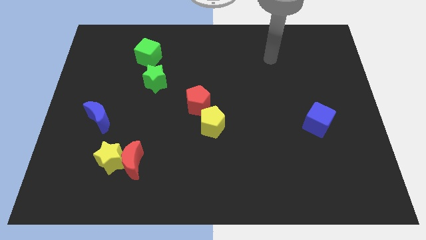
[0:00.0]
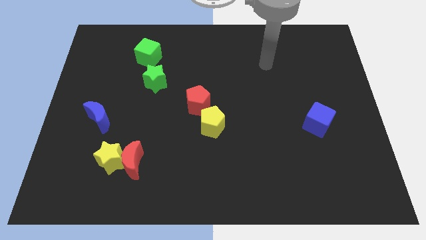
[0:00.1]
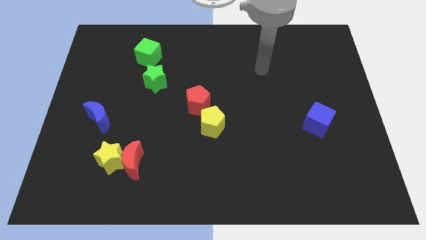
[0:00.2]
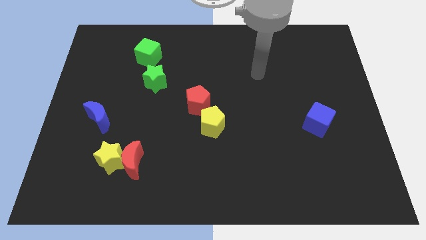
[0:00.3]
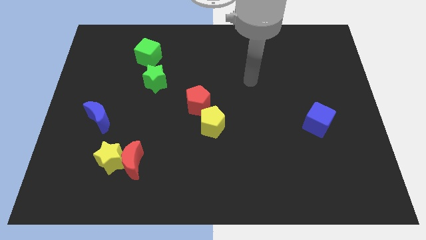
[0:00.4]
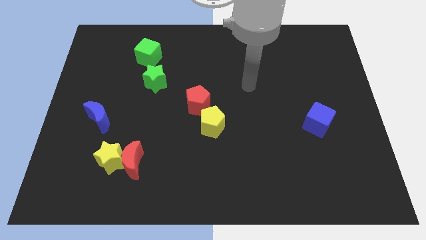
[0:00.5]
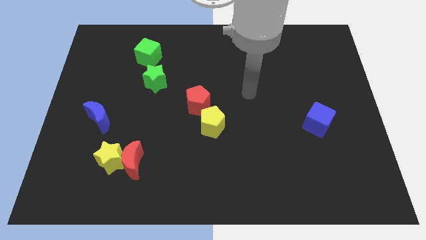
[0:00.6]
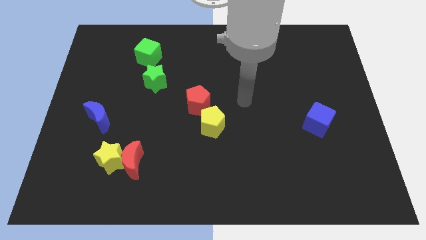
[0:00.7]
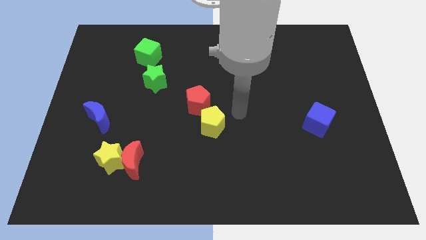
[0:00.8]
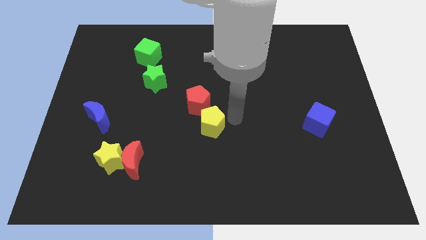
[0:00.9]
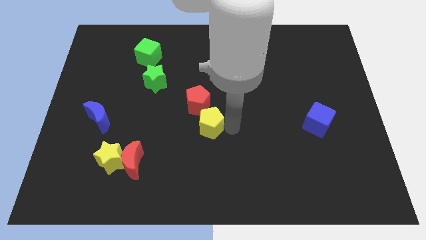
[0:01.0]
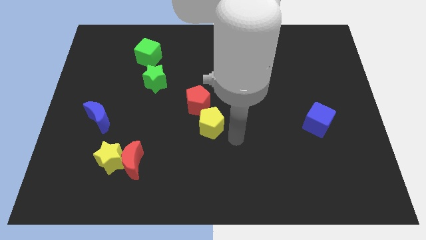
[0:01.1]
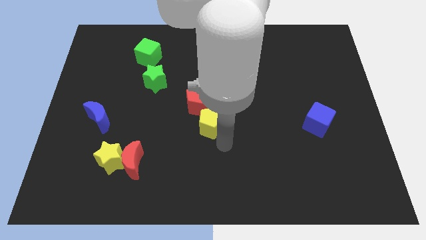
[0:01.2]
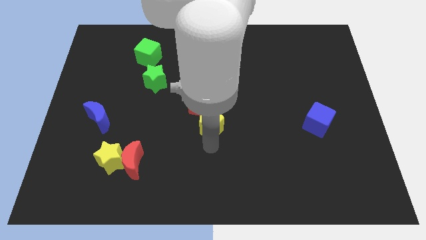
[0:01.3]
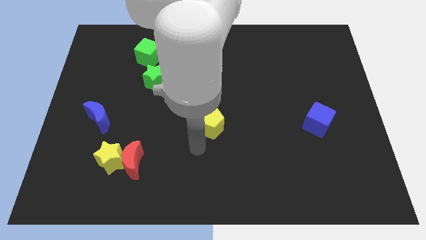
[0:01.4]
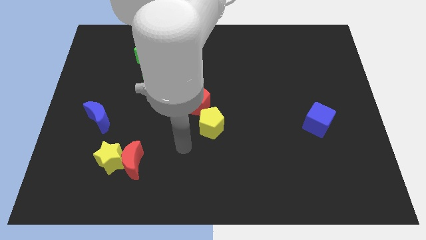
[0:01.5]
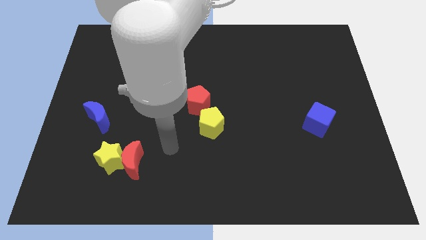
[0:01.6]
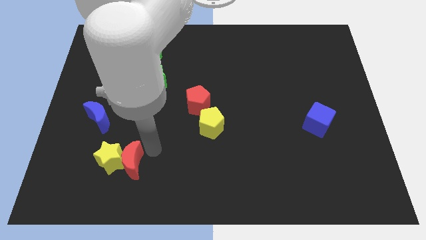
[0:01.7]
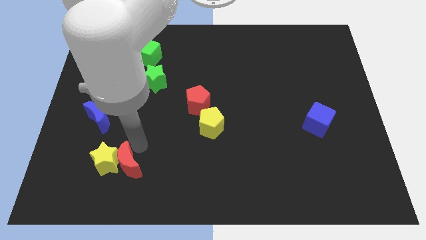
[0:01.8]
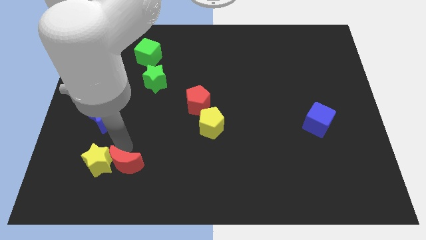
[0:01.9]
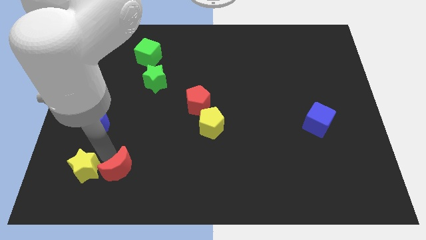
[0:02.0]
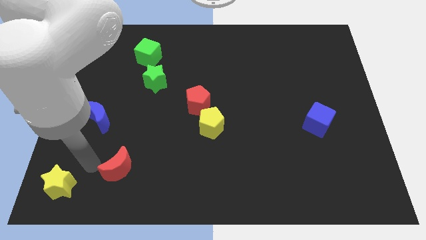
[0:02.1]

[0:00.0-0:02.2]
separate the red moon from the yellow star

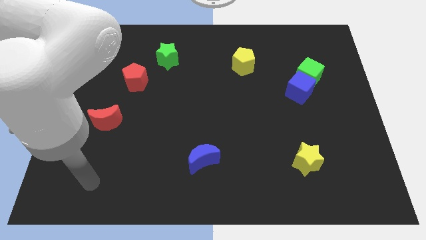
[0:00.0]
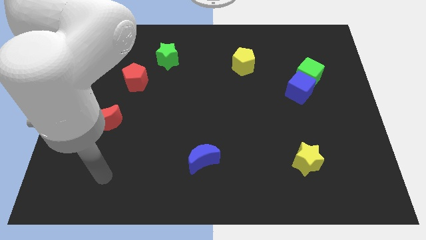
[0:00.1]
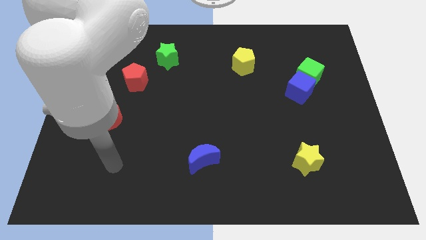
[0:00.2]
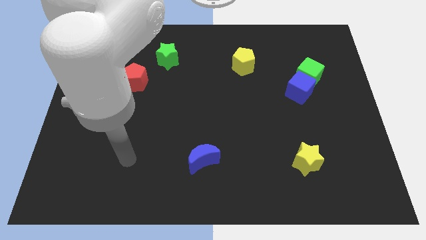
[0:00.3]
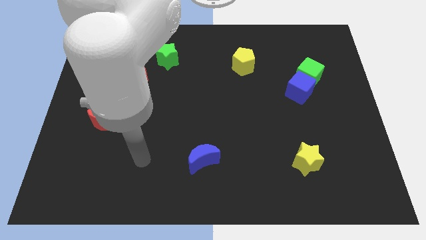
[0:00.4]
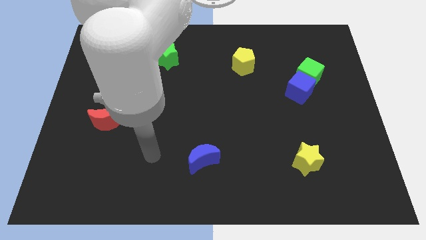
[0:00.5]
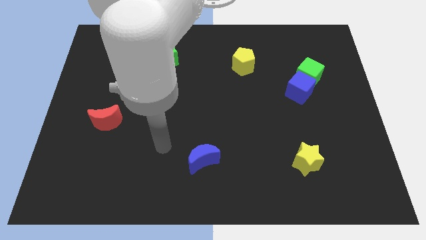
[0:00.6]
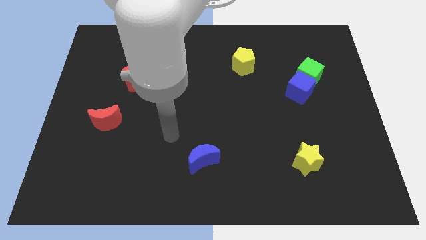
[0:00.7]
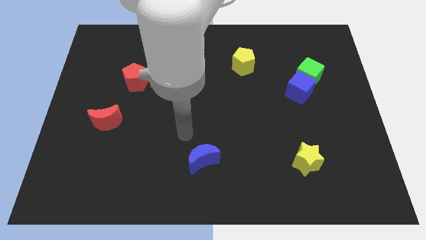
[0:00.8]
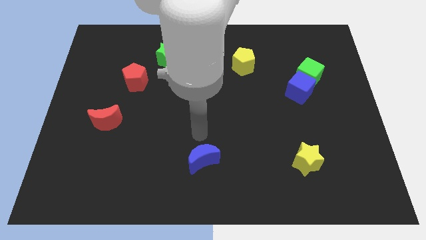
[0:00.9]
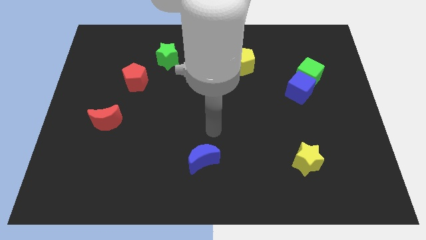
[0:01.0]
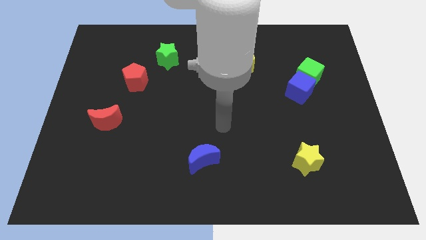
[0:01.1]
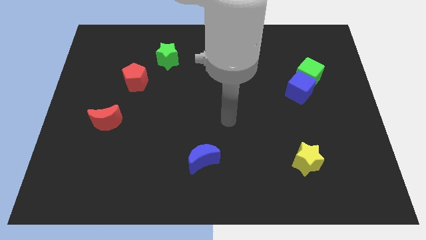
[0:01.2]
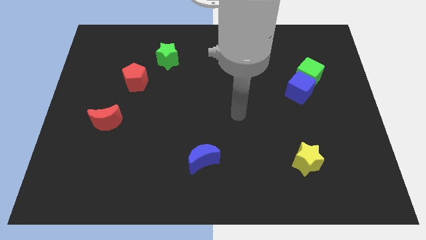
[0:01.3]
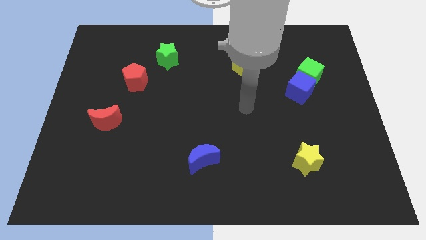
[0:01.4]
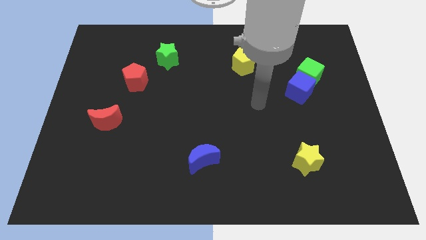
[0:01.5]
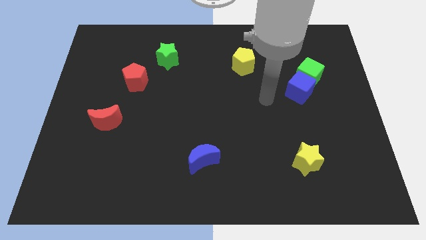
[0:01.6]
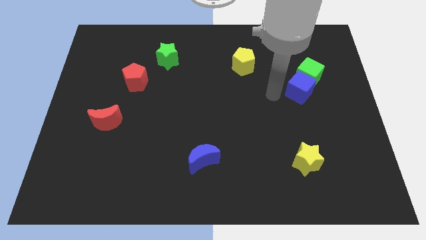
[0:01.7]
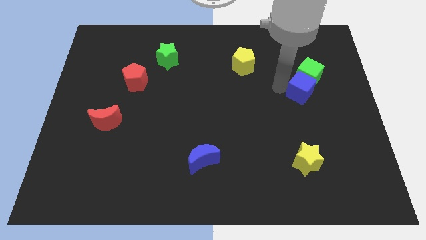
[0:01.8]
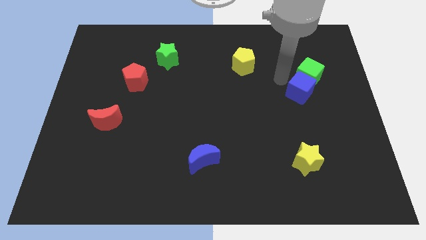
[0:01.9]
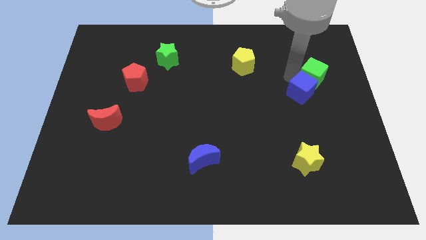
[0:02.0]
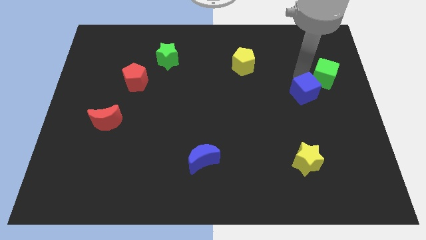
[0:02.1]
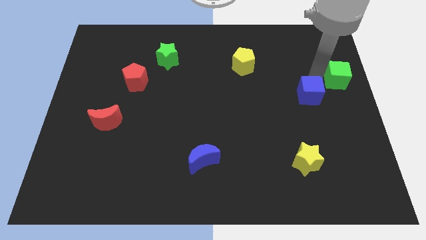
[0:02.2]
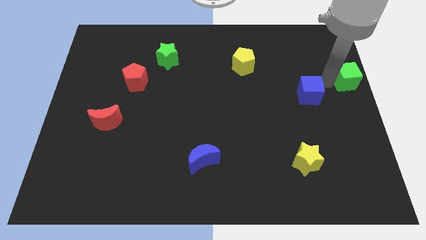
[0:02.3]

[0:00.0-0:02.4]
move the blue cube away from the green cube

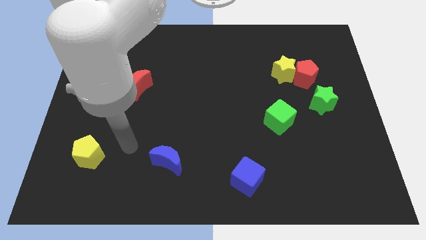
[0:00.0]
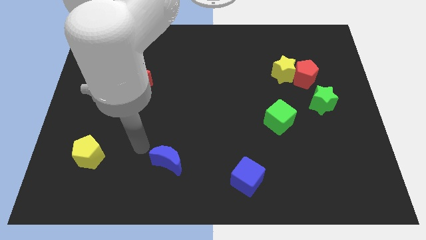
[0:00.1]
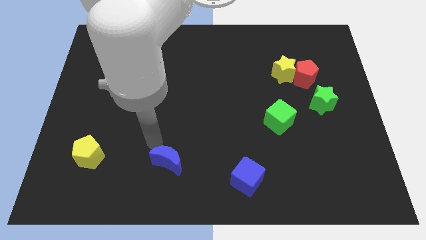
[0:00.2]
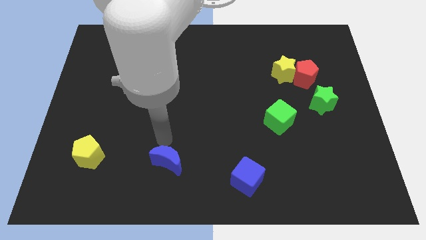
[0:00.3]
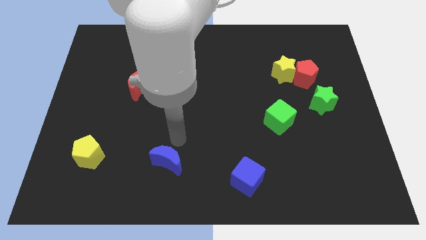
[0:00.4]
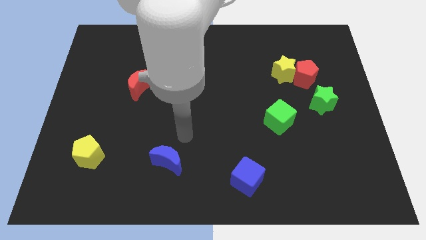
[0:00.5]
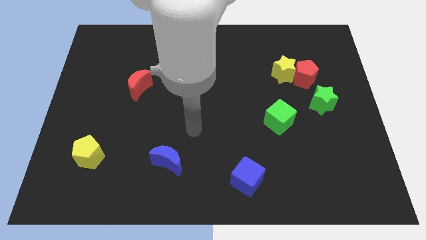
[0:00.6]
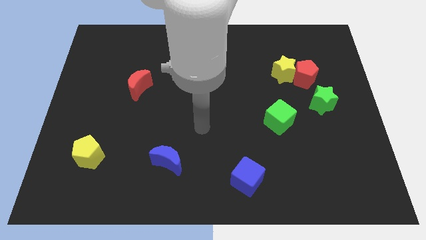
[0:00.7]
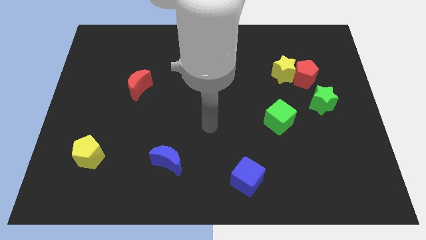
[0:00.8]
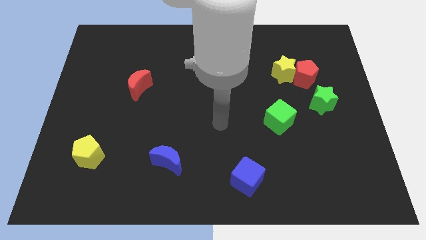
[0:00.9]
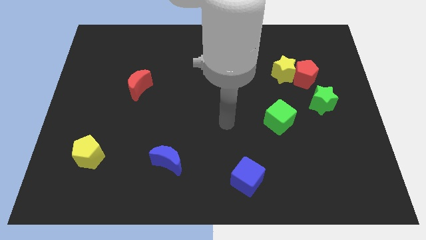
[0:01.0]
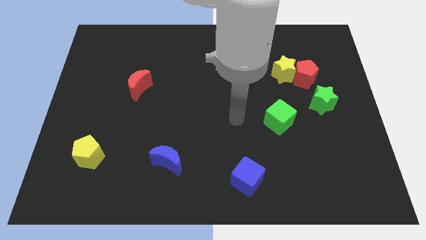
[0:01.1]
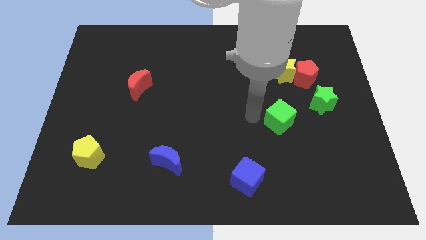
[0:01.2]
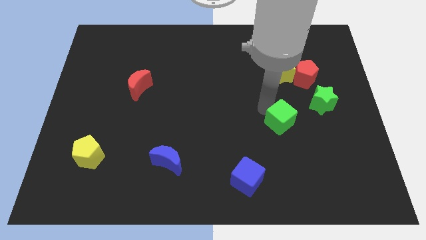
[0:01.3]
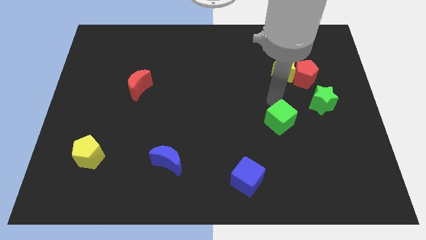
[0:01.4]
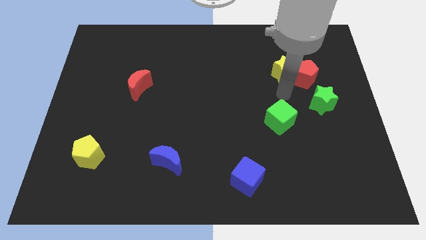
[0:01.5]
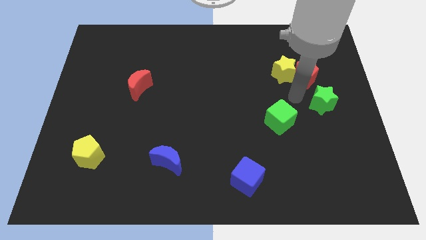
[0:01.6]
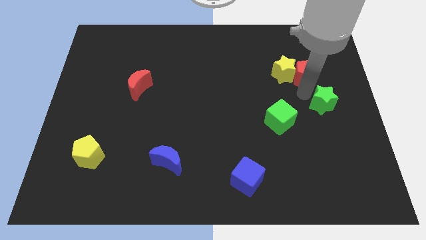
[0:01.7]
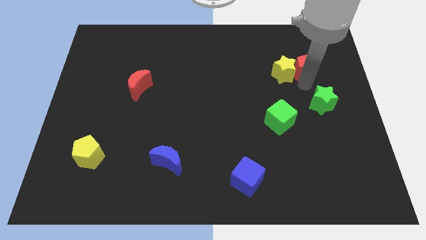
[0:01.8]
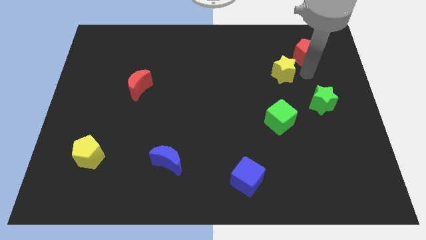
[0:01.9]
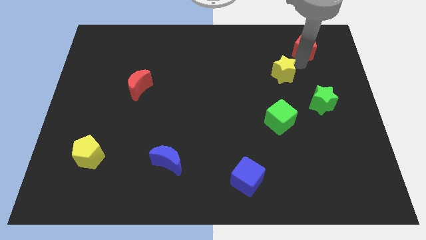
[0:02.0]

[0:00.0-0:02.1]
pull the yellow star apart from the red pentagon

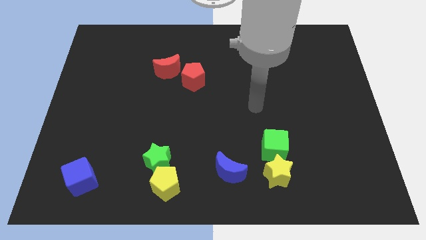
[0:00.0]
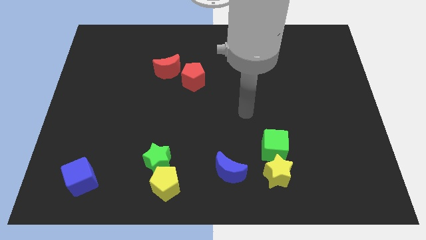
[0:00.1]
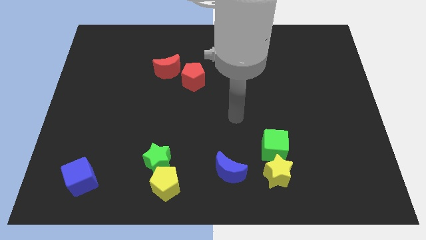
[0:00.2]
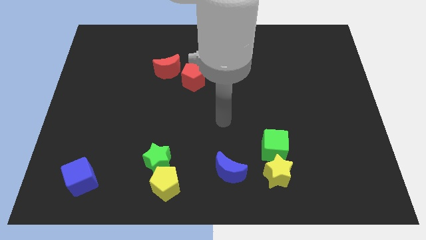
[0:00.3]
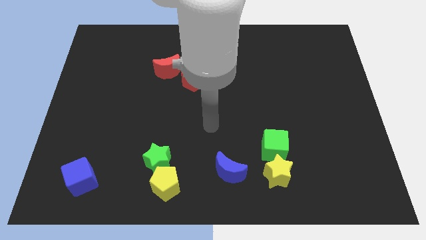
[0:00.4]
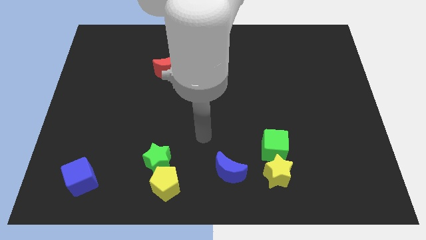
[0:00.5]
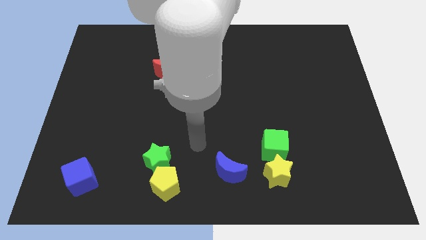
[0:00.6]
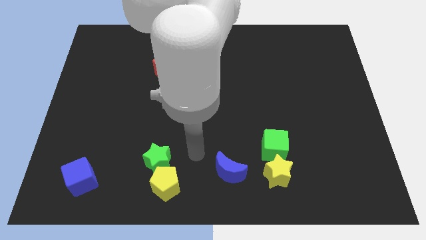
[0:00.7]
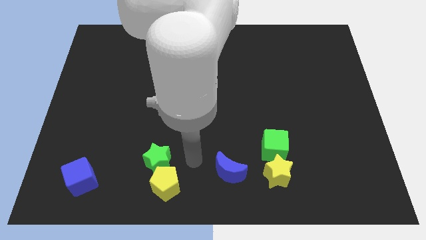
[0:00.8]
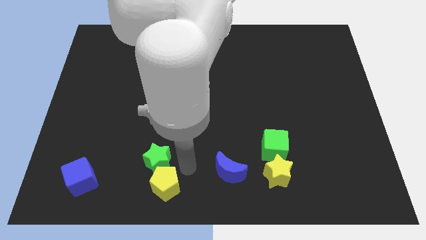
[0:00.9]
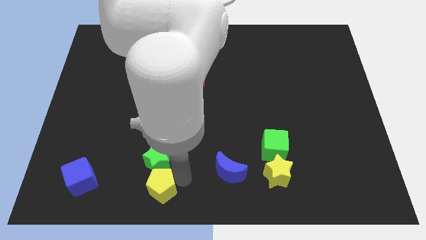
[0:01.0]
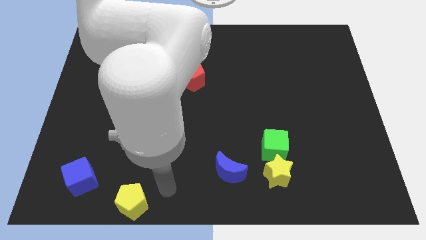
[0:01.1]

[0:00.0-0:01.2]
pull the green star apart from the yellow pentagon

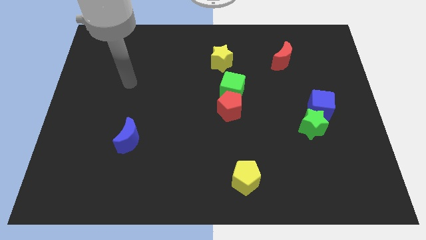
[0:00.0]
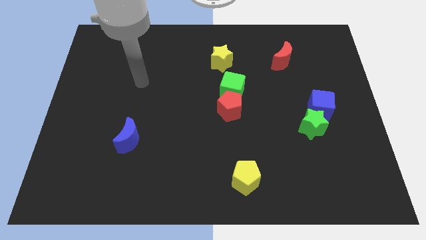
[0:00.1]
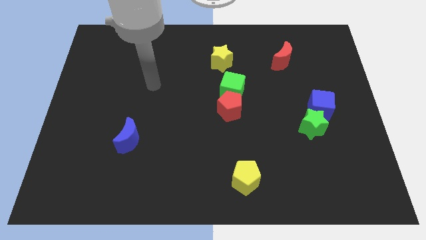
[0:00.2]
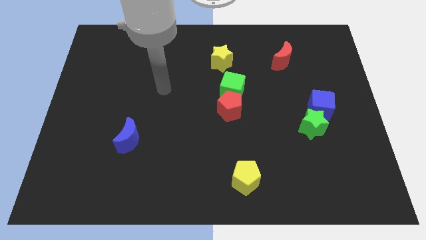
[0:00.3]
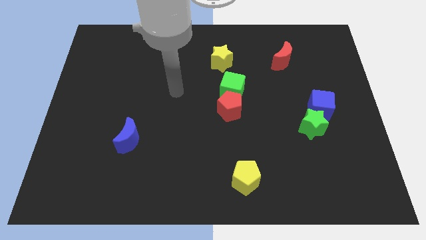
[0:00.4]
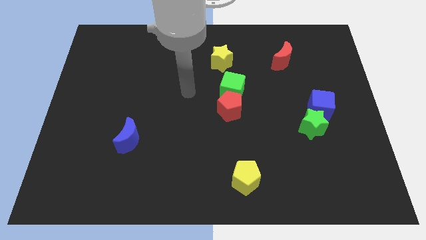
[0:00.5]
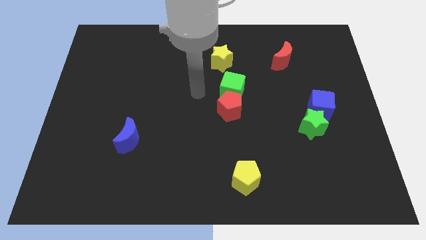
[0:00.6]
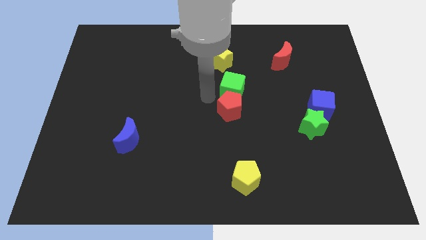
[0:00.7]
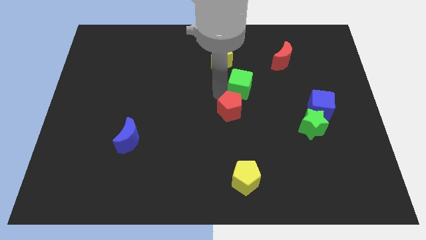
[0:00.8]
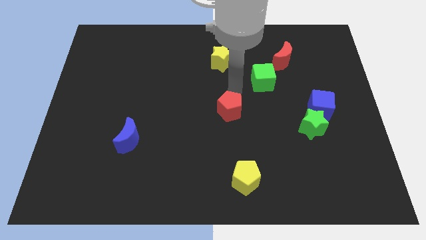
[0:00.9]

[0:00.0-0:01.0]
pull the red pentagon apart from the green cube

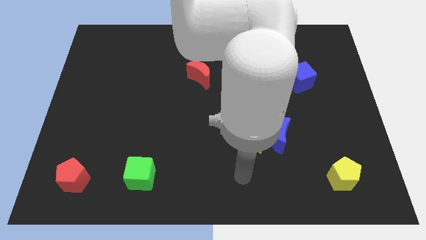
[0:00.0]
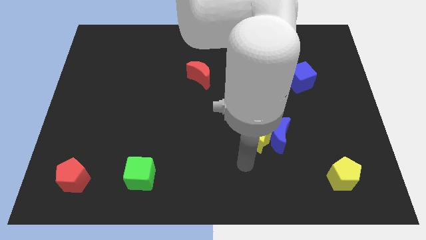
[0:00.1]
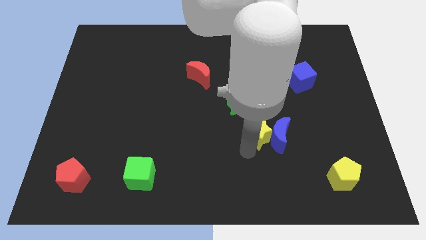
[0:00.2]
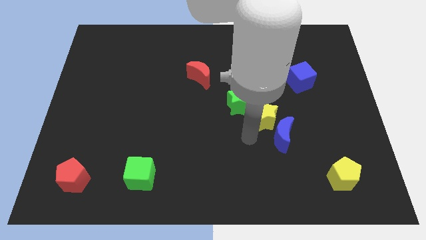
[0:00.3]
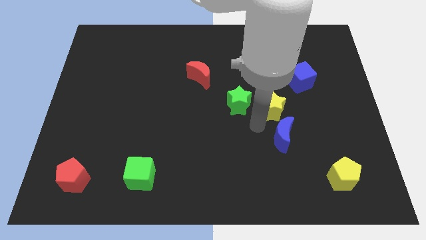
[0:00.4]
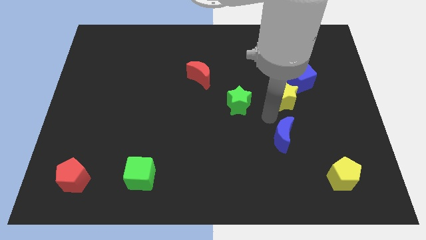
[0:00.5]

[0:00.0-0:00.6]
move the blue moon away from the yellow star
